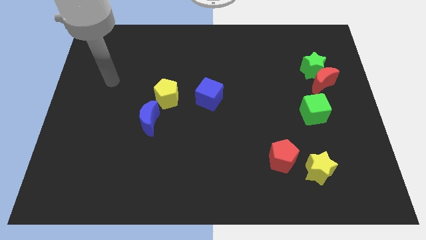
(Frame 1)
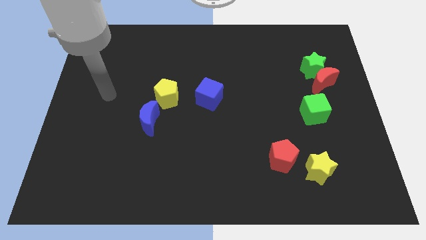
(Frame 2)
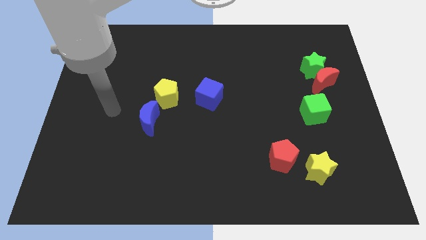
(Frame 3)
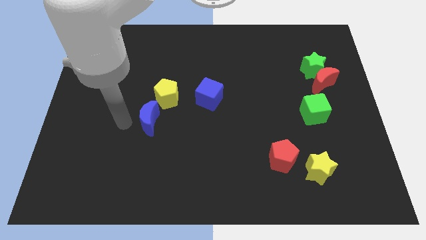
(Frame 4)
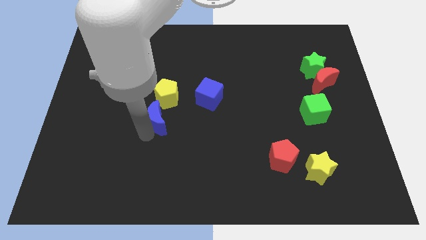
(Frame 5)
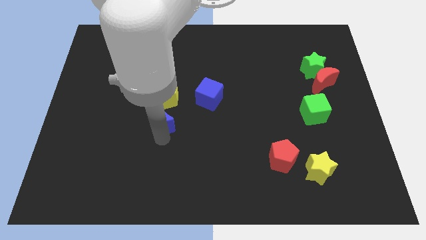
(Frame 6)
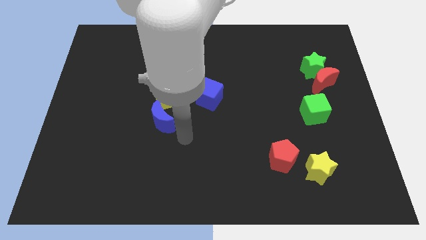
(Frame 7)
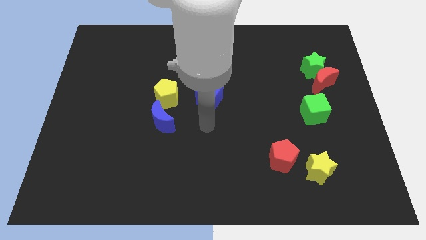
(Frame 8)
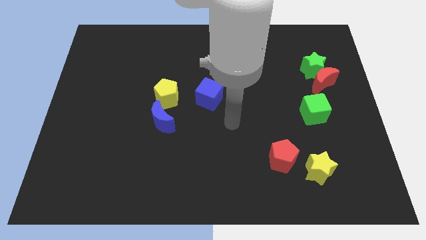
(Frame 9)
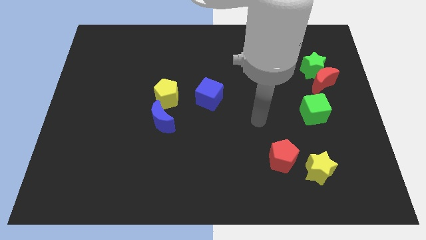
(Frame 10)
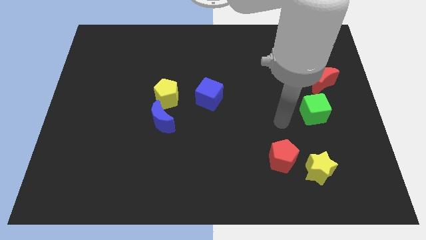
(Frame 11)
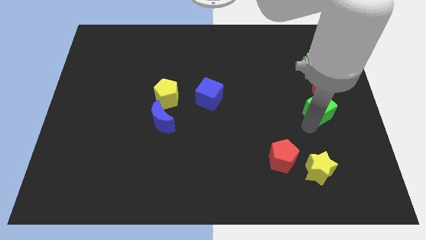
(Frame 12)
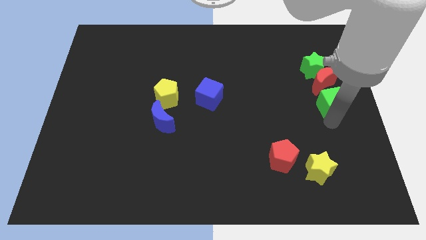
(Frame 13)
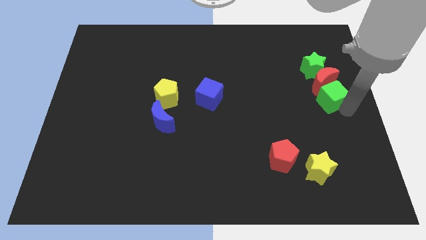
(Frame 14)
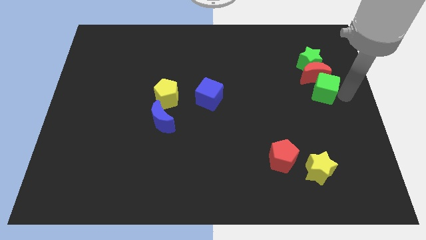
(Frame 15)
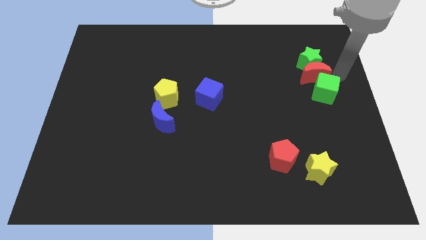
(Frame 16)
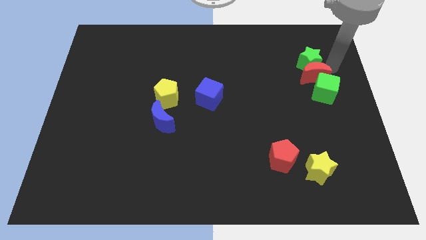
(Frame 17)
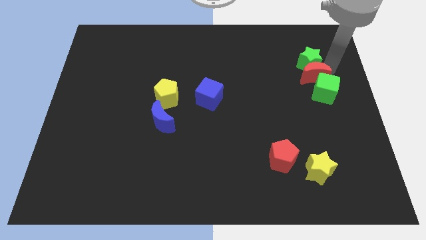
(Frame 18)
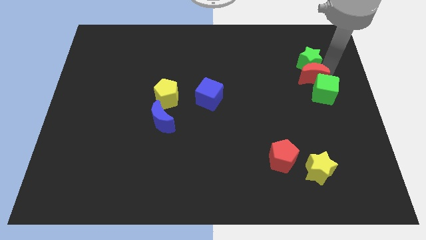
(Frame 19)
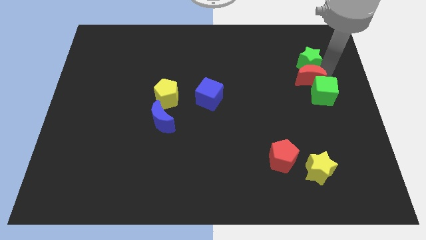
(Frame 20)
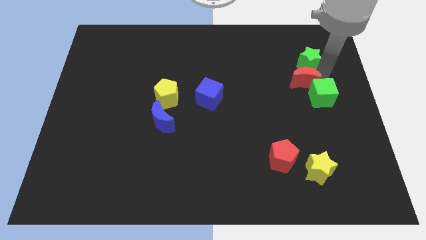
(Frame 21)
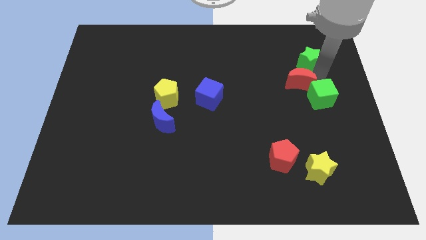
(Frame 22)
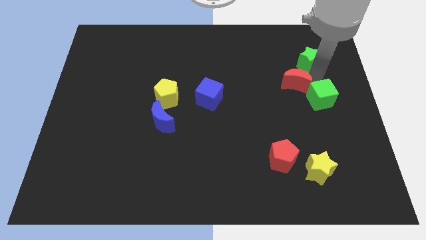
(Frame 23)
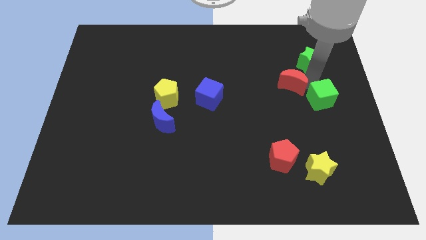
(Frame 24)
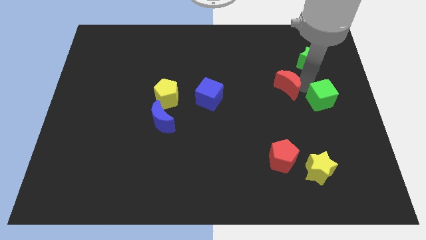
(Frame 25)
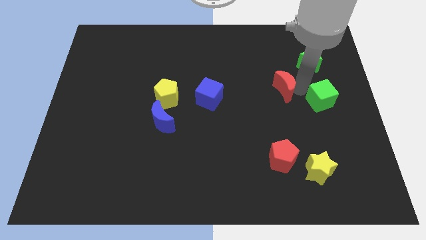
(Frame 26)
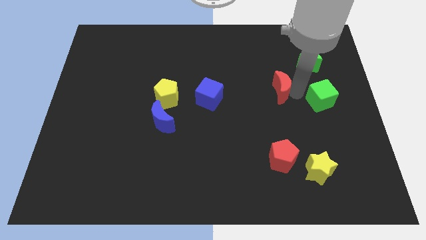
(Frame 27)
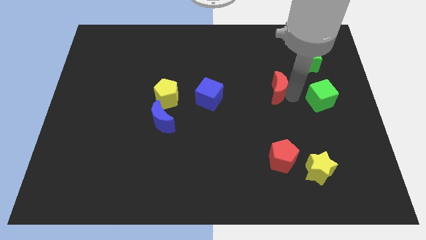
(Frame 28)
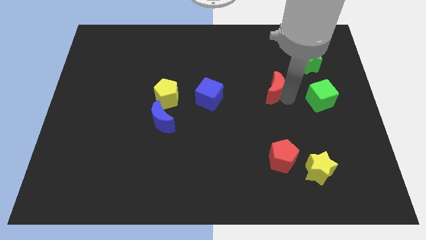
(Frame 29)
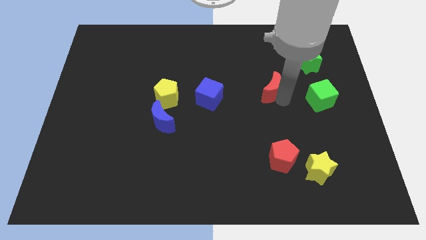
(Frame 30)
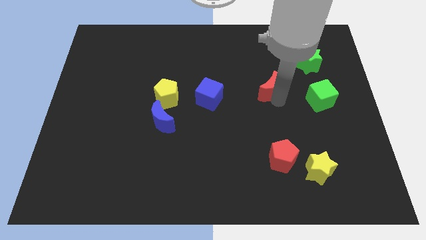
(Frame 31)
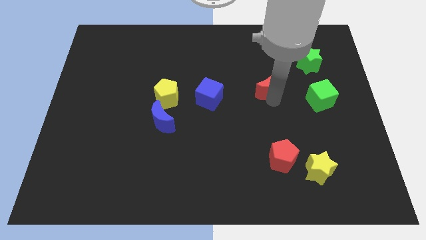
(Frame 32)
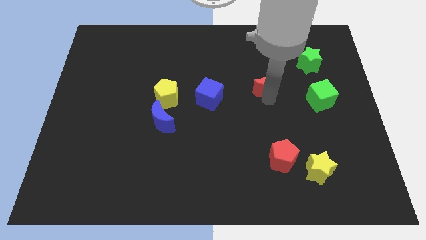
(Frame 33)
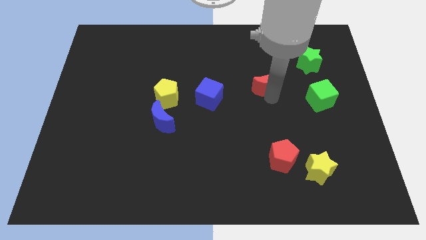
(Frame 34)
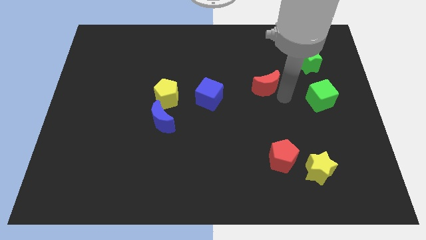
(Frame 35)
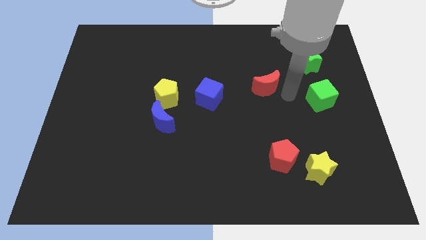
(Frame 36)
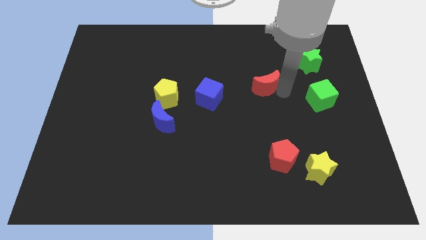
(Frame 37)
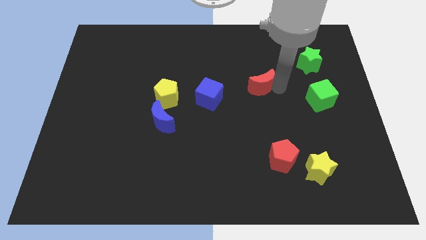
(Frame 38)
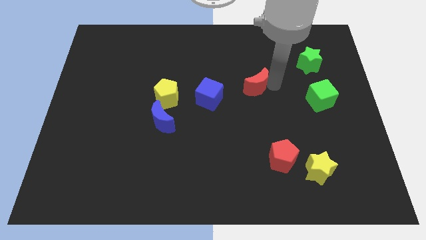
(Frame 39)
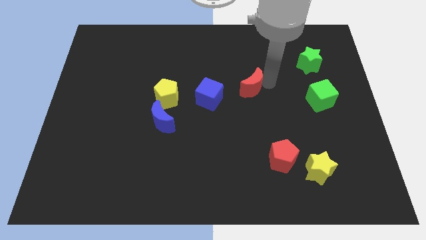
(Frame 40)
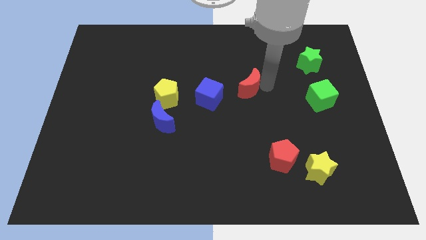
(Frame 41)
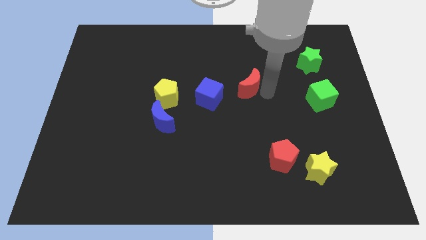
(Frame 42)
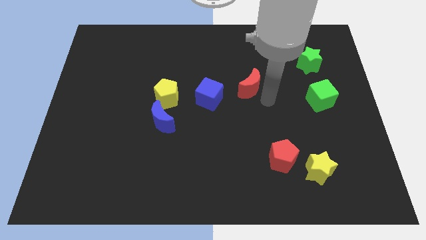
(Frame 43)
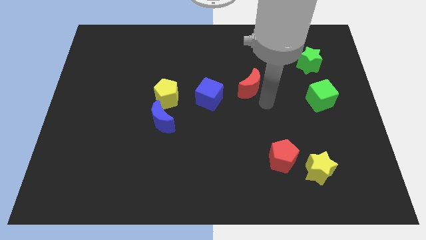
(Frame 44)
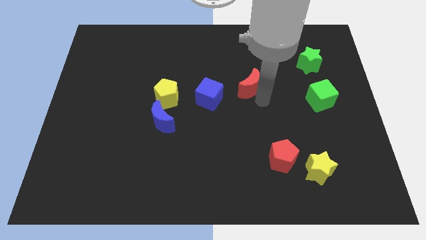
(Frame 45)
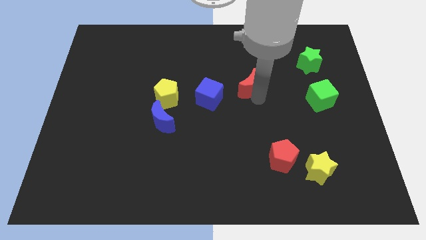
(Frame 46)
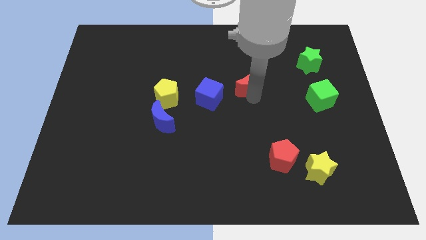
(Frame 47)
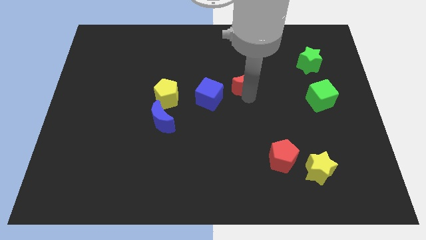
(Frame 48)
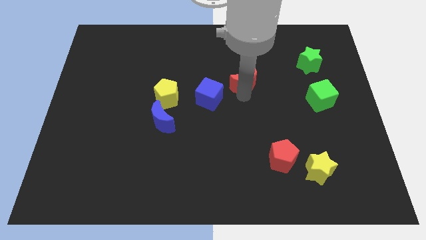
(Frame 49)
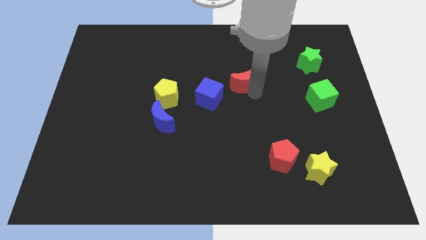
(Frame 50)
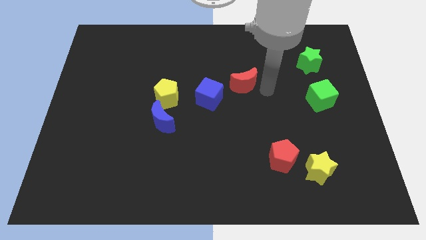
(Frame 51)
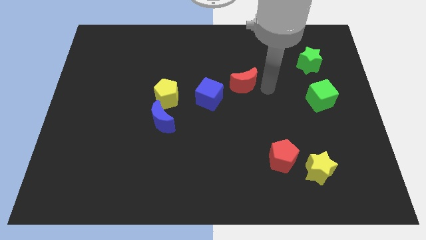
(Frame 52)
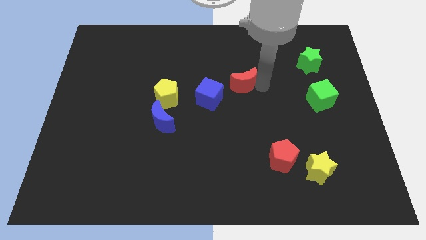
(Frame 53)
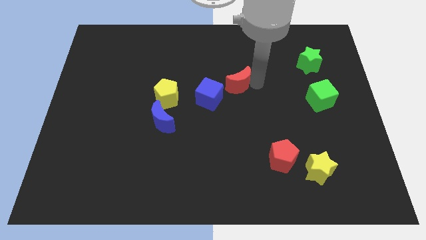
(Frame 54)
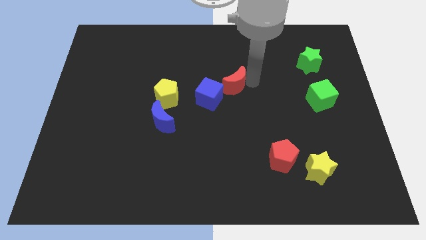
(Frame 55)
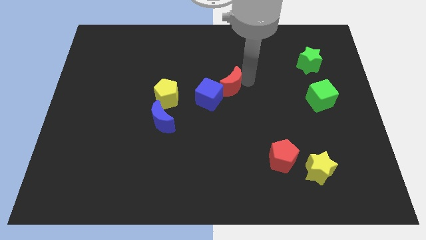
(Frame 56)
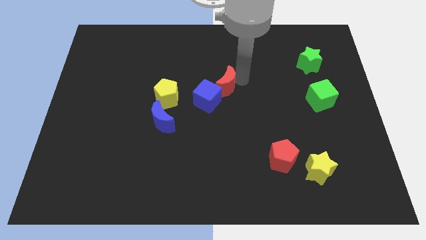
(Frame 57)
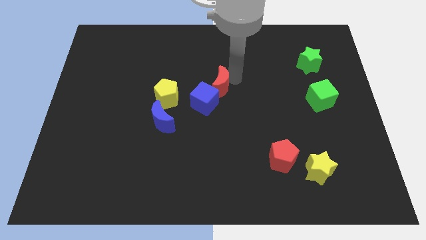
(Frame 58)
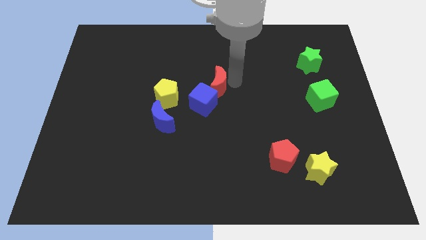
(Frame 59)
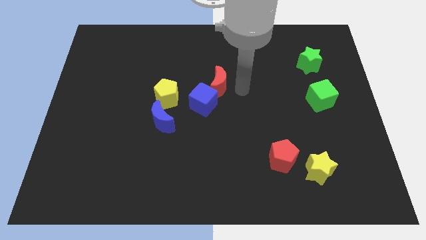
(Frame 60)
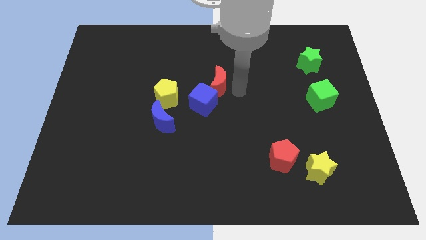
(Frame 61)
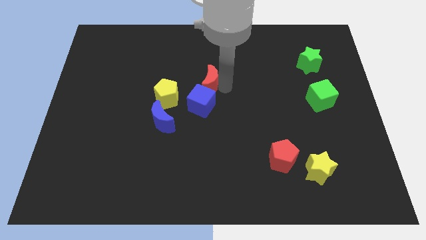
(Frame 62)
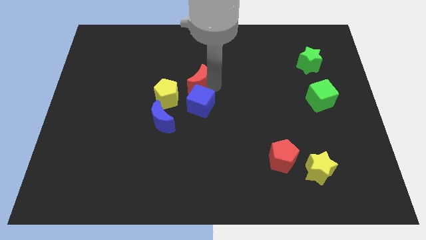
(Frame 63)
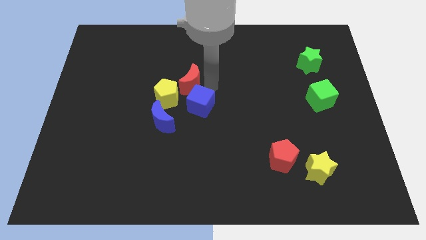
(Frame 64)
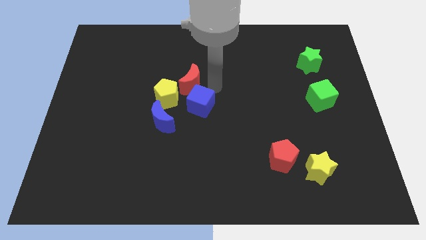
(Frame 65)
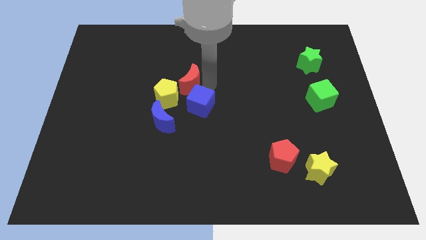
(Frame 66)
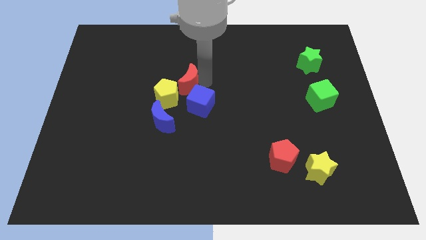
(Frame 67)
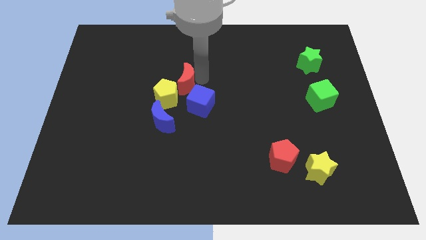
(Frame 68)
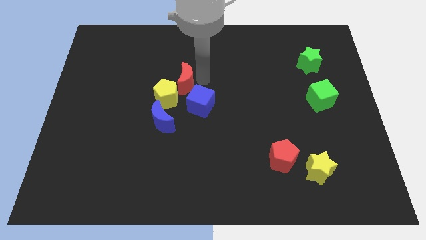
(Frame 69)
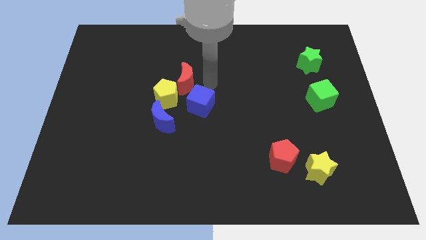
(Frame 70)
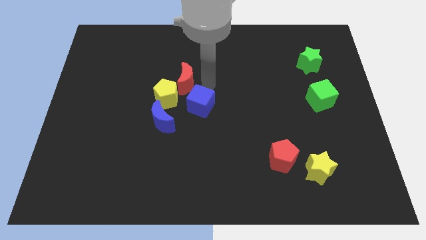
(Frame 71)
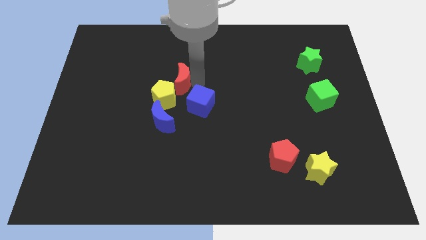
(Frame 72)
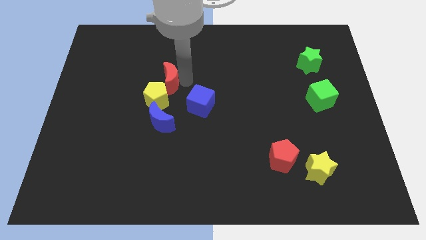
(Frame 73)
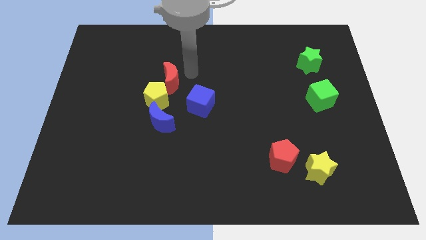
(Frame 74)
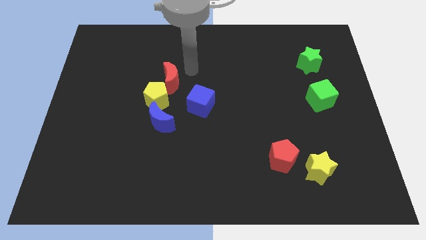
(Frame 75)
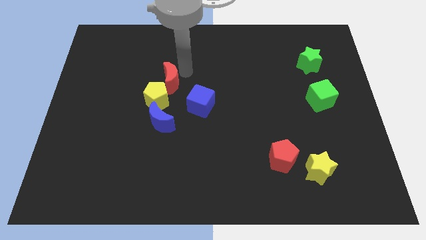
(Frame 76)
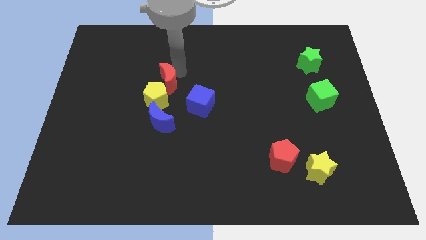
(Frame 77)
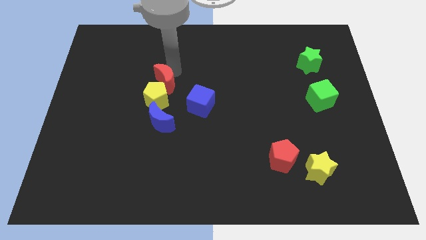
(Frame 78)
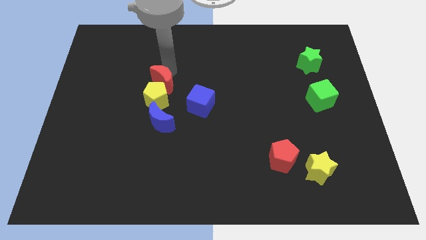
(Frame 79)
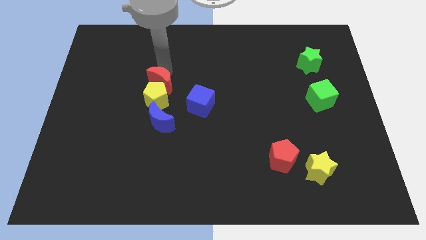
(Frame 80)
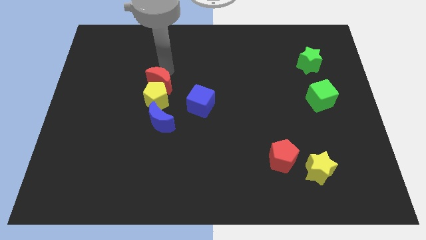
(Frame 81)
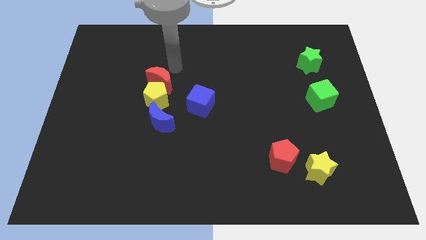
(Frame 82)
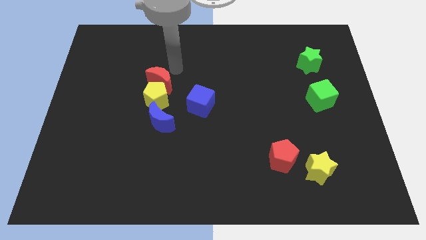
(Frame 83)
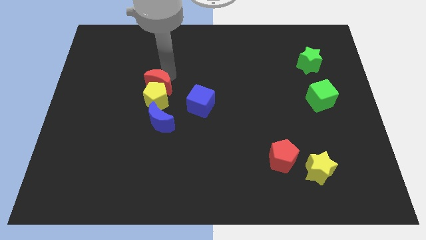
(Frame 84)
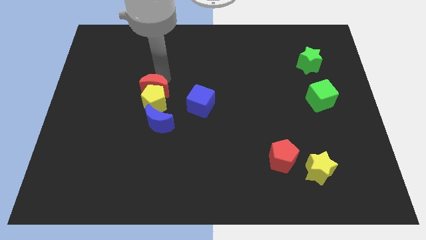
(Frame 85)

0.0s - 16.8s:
slide the red moon to the left of the blue cube
